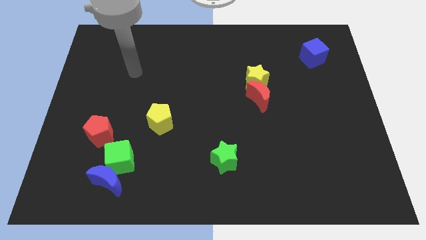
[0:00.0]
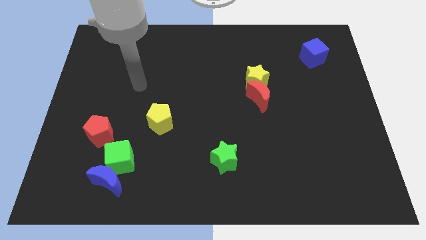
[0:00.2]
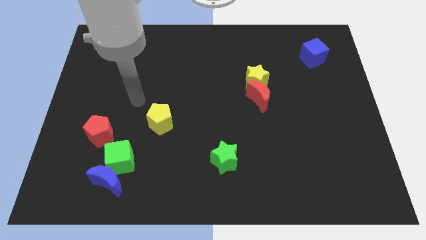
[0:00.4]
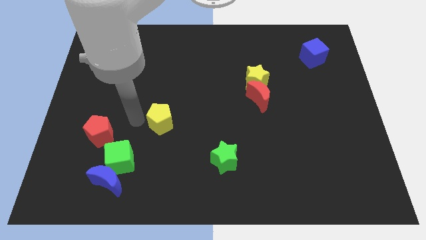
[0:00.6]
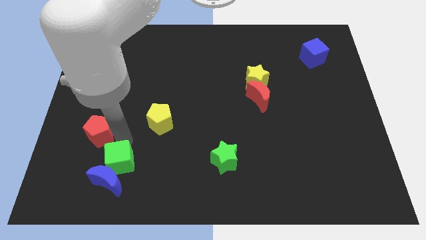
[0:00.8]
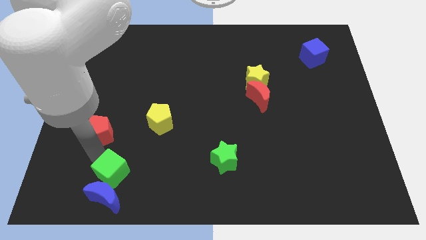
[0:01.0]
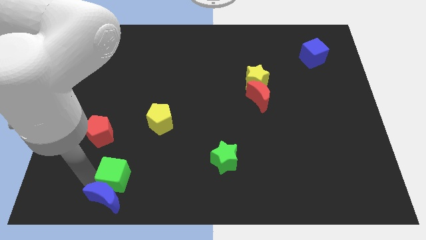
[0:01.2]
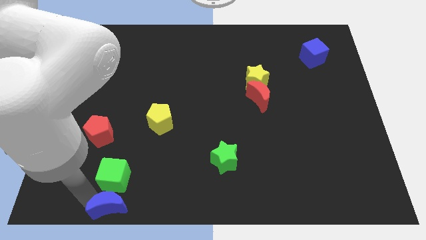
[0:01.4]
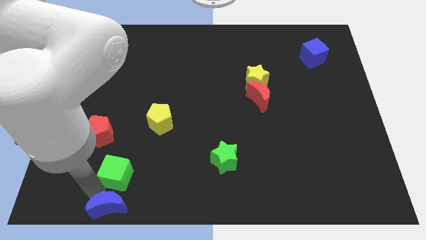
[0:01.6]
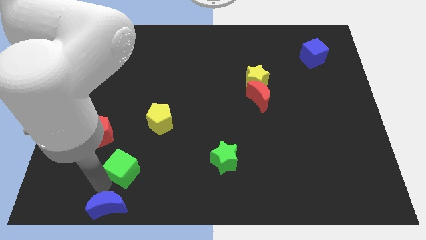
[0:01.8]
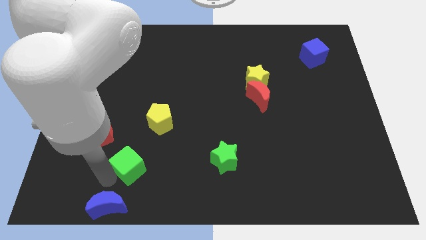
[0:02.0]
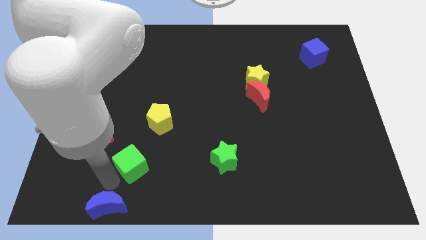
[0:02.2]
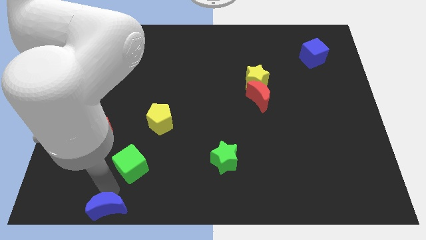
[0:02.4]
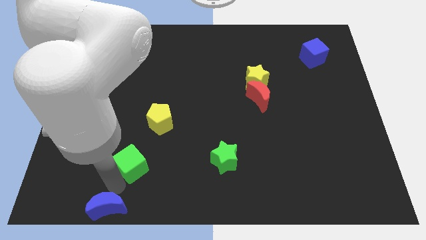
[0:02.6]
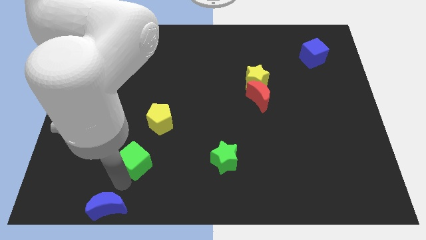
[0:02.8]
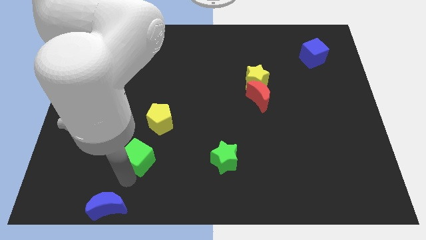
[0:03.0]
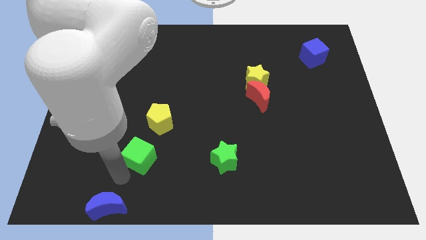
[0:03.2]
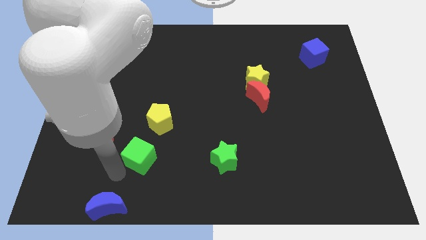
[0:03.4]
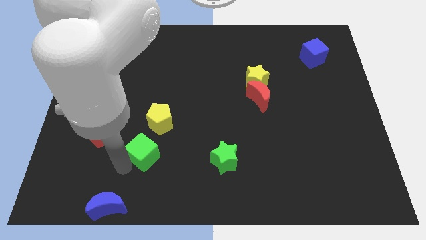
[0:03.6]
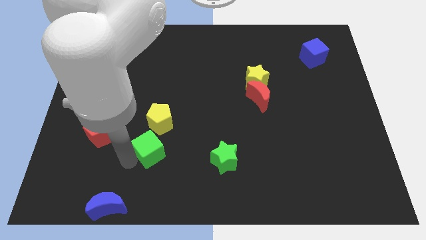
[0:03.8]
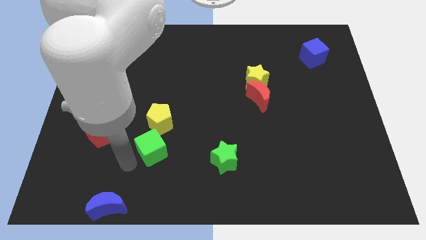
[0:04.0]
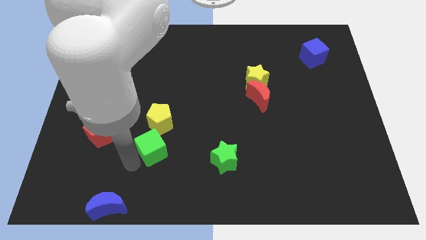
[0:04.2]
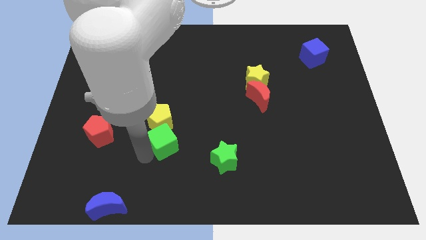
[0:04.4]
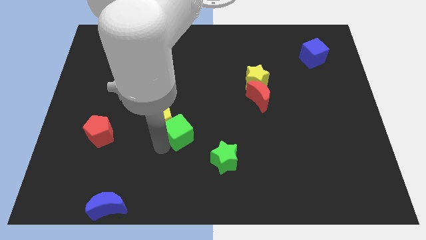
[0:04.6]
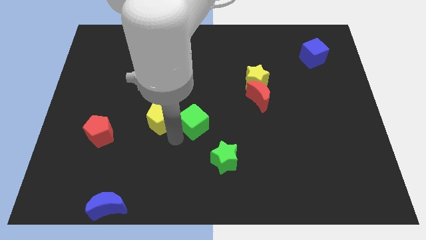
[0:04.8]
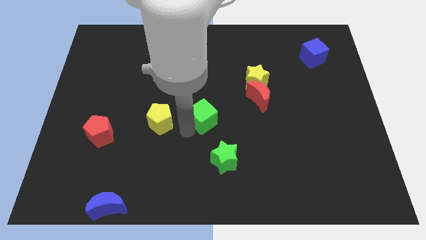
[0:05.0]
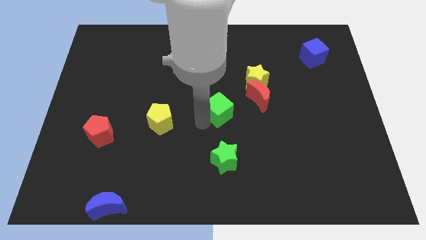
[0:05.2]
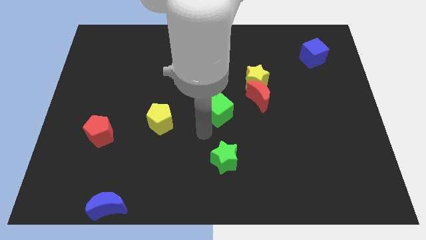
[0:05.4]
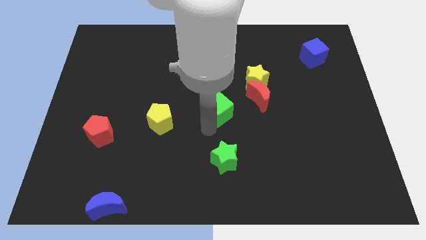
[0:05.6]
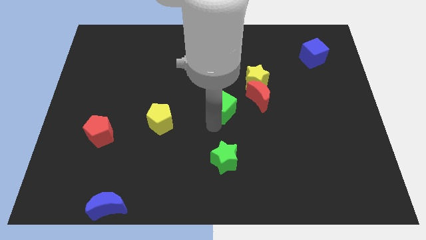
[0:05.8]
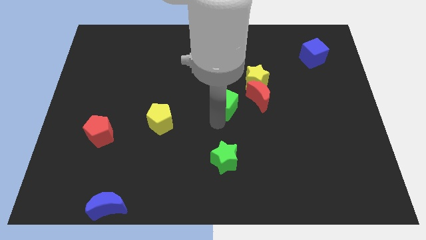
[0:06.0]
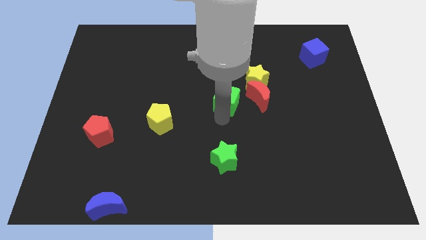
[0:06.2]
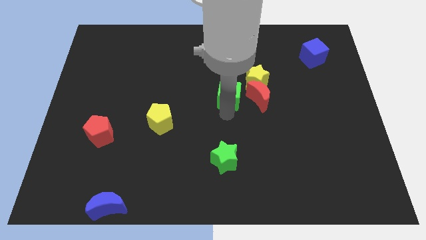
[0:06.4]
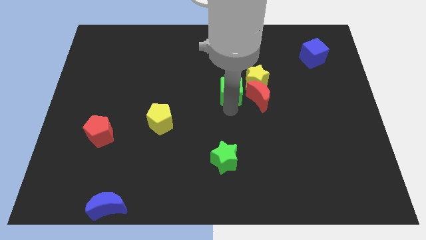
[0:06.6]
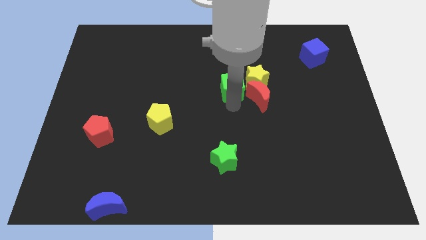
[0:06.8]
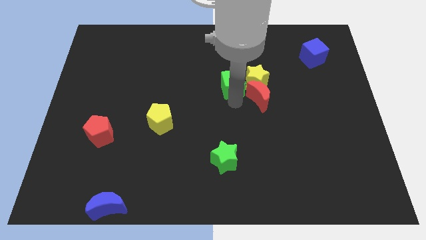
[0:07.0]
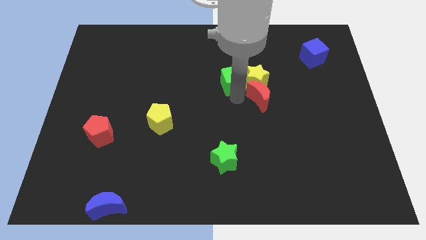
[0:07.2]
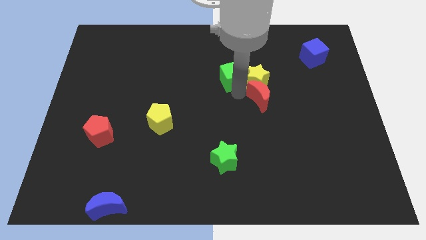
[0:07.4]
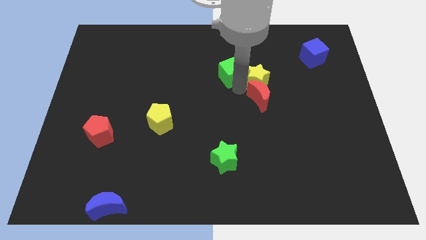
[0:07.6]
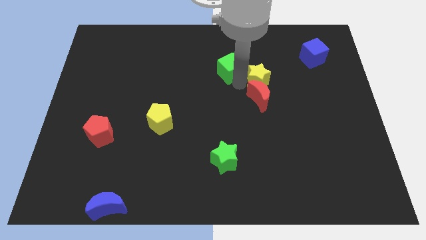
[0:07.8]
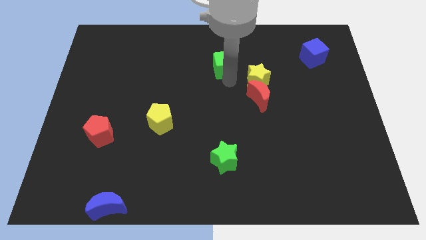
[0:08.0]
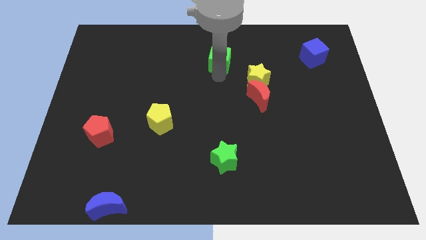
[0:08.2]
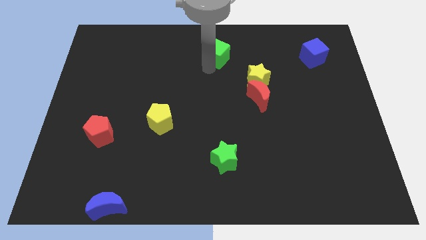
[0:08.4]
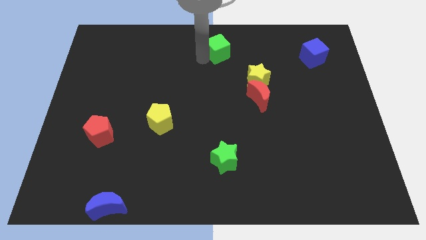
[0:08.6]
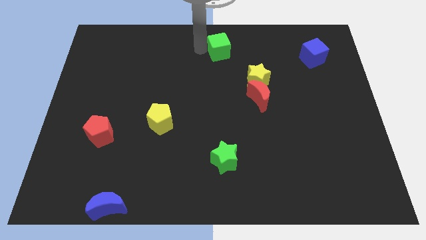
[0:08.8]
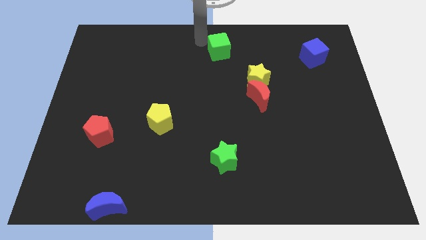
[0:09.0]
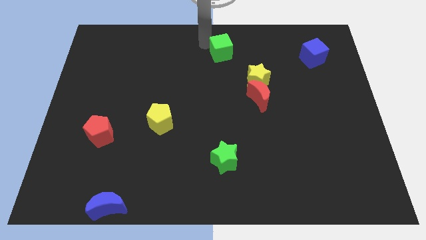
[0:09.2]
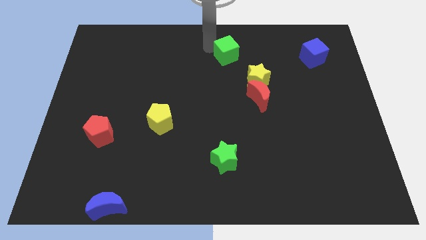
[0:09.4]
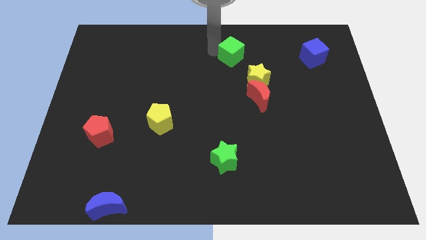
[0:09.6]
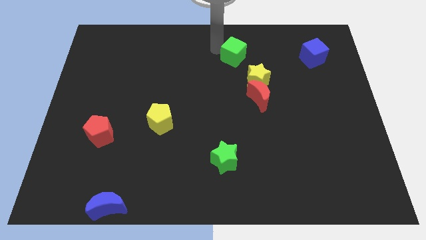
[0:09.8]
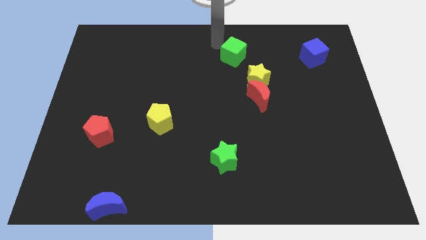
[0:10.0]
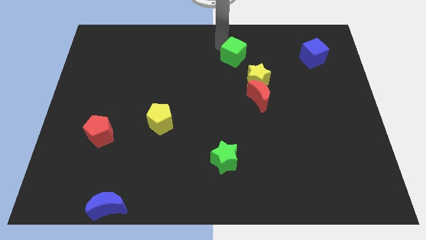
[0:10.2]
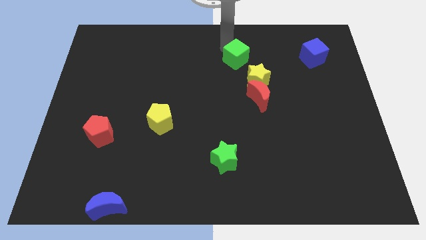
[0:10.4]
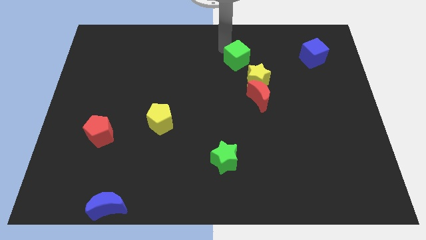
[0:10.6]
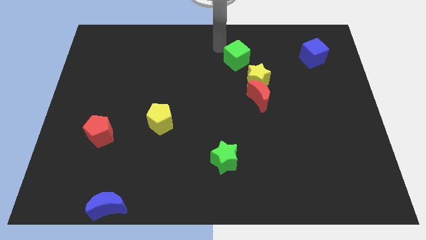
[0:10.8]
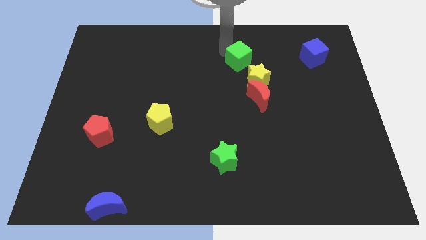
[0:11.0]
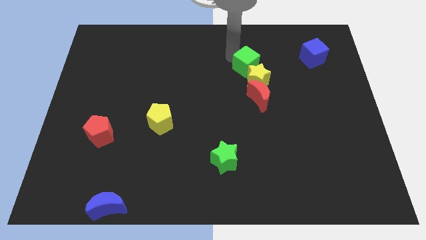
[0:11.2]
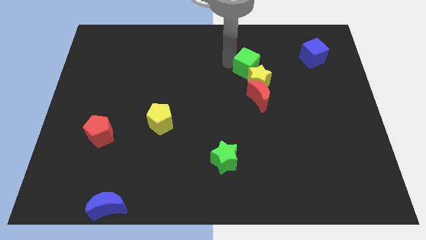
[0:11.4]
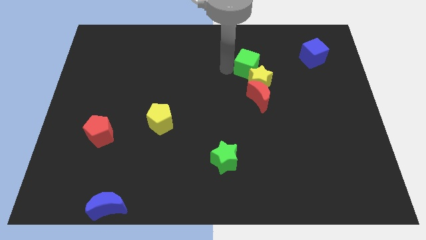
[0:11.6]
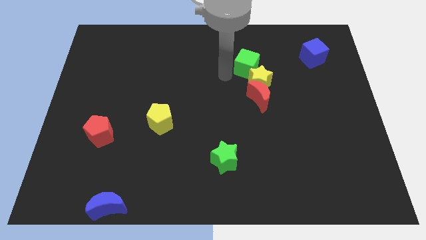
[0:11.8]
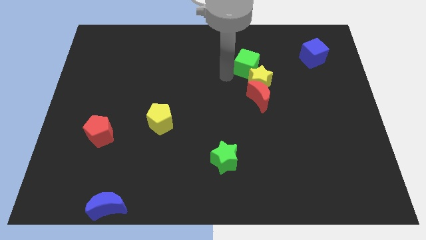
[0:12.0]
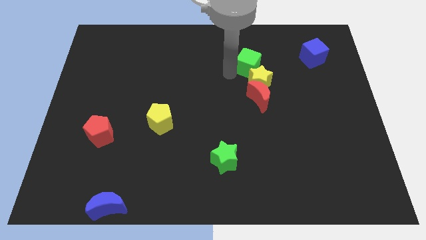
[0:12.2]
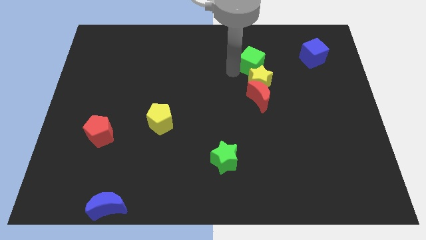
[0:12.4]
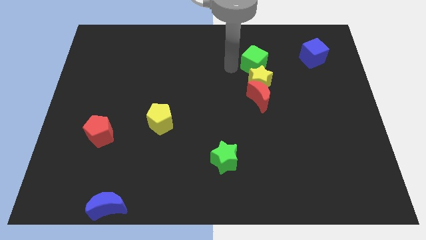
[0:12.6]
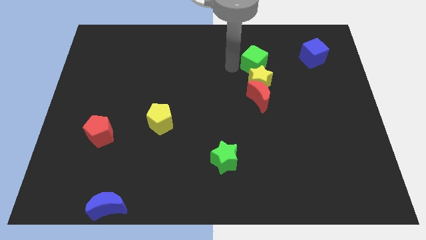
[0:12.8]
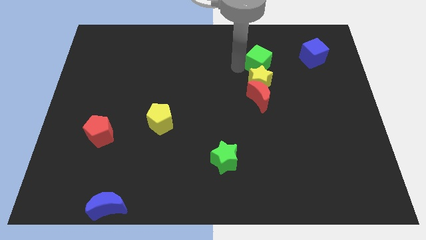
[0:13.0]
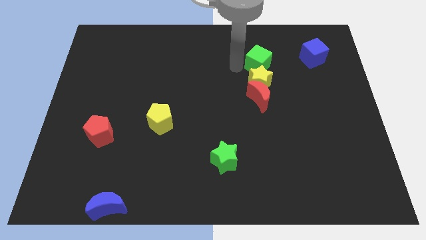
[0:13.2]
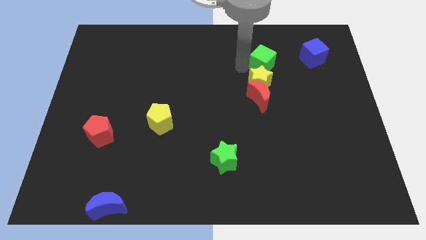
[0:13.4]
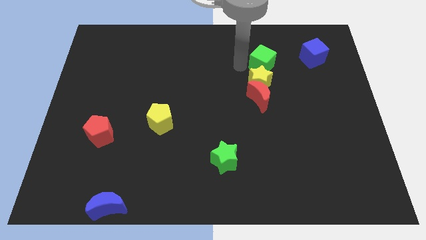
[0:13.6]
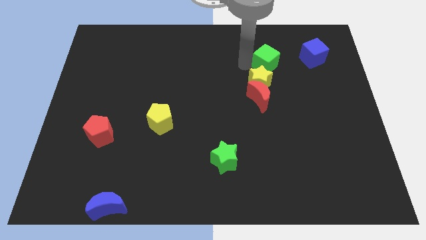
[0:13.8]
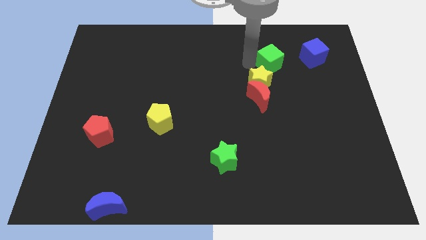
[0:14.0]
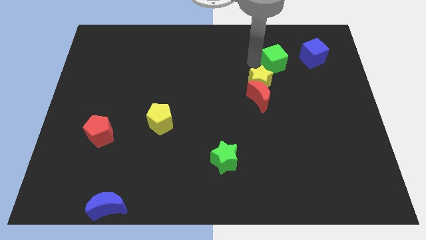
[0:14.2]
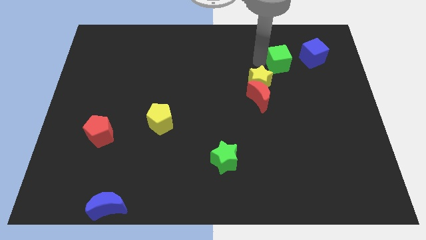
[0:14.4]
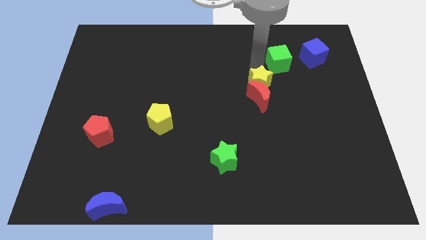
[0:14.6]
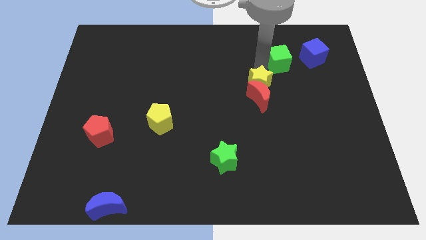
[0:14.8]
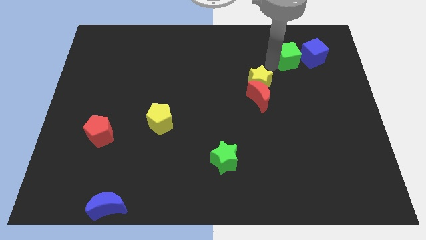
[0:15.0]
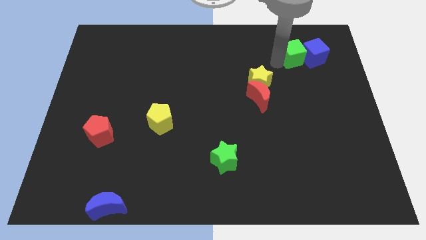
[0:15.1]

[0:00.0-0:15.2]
push the green cube to the blue cube
